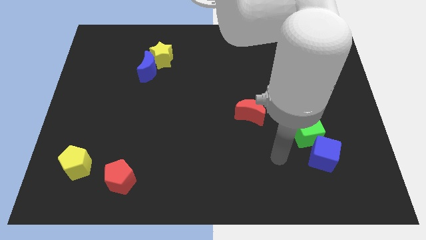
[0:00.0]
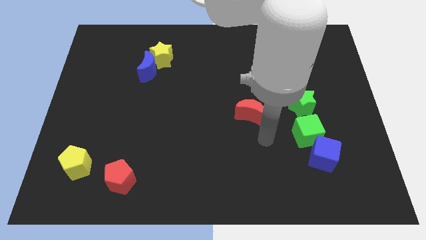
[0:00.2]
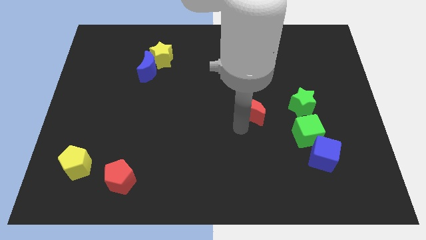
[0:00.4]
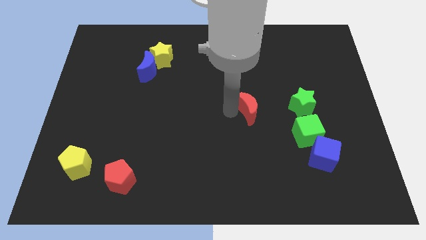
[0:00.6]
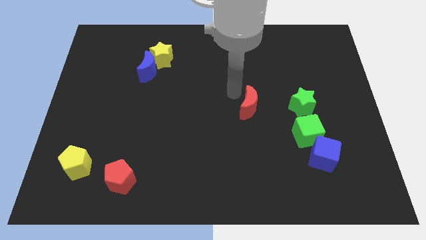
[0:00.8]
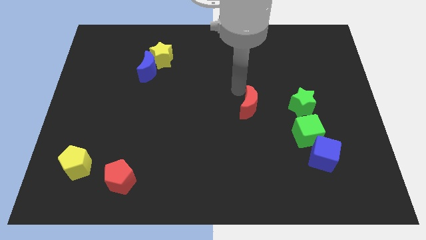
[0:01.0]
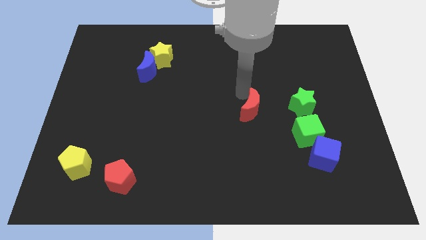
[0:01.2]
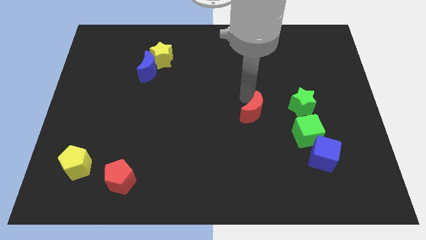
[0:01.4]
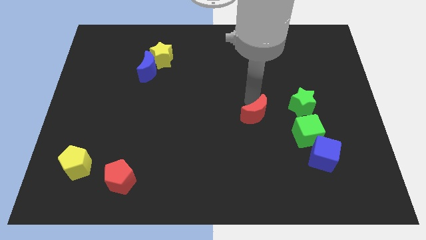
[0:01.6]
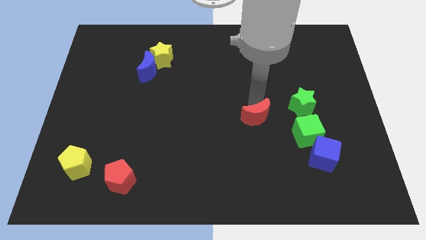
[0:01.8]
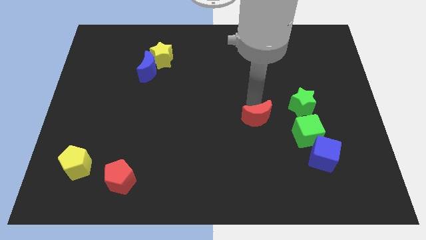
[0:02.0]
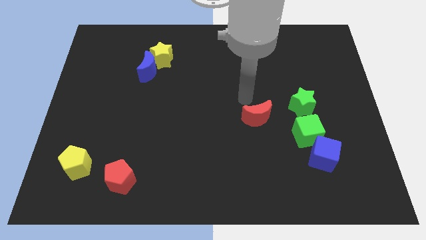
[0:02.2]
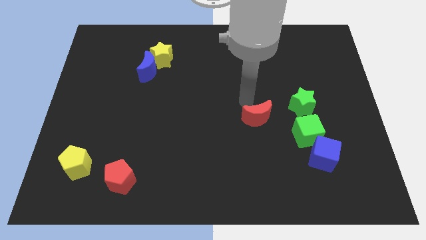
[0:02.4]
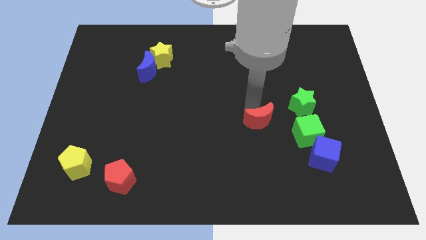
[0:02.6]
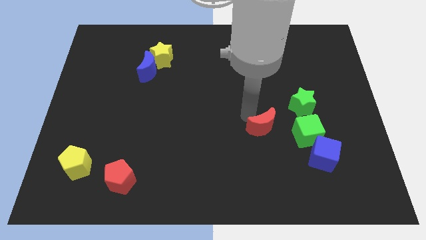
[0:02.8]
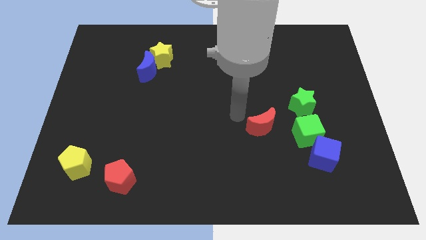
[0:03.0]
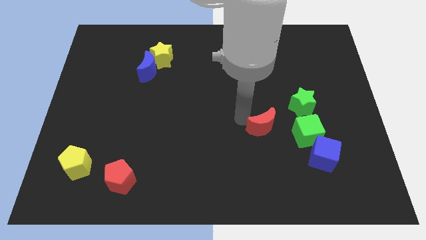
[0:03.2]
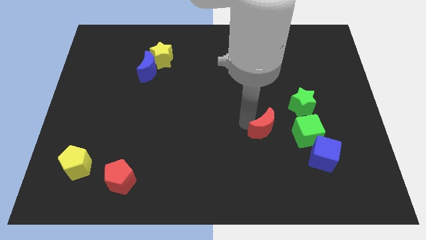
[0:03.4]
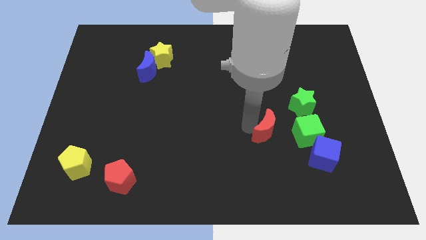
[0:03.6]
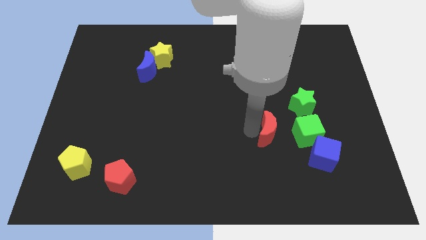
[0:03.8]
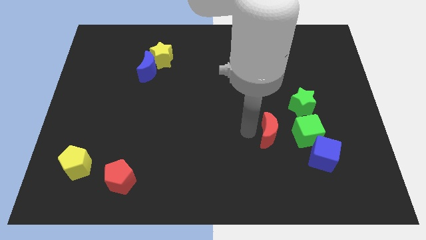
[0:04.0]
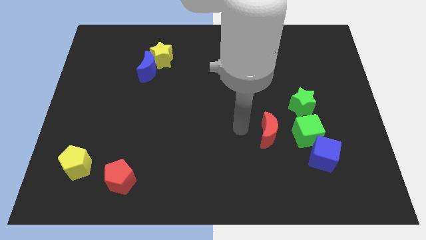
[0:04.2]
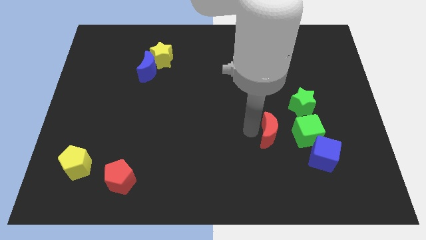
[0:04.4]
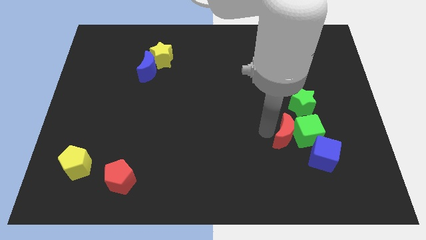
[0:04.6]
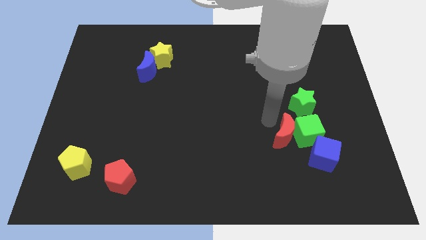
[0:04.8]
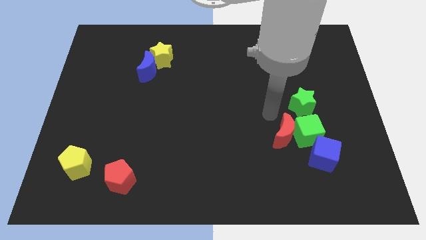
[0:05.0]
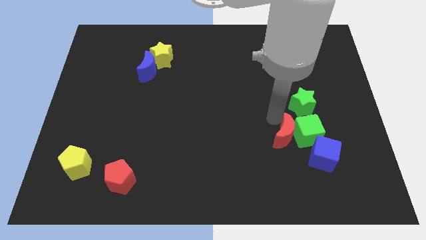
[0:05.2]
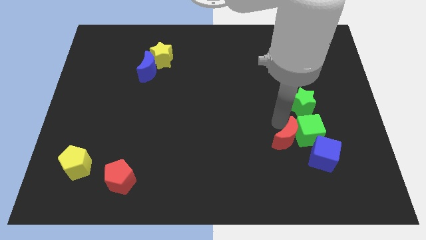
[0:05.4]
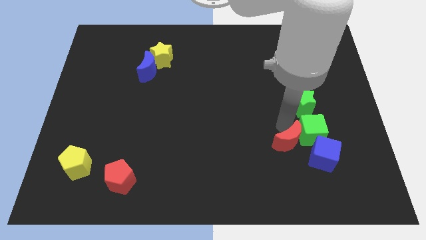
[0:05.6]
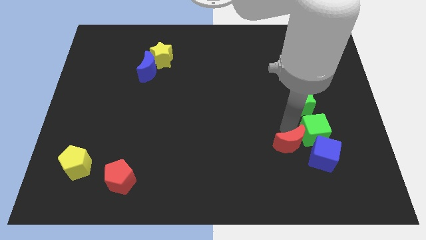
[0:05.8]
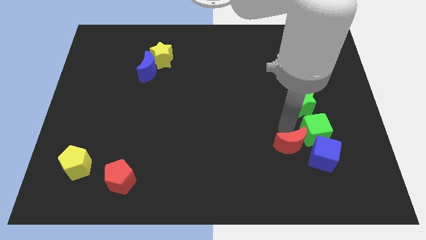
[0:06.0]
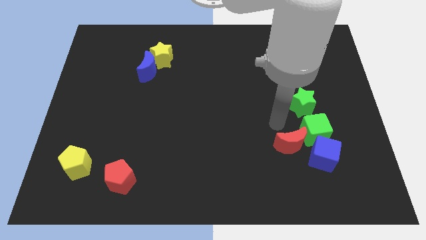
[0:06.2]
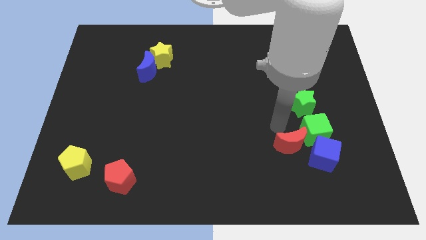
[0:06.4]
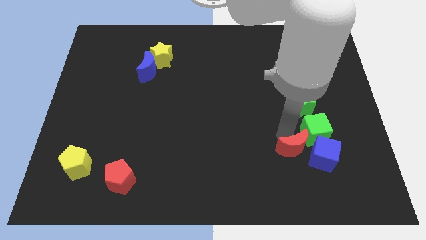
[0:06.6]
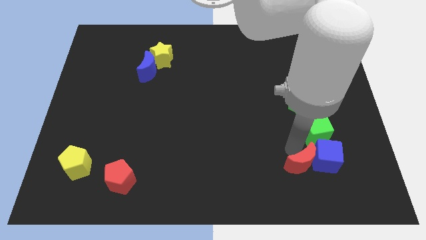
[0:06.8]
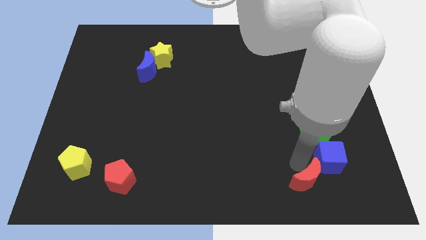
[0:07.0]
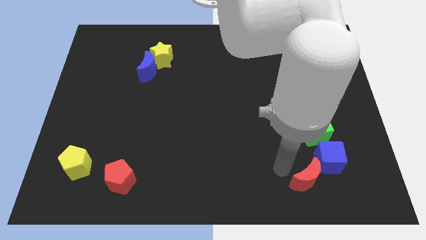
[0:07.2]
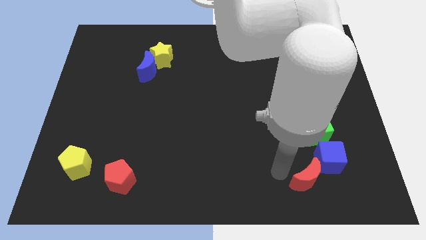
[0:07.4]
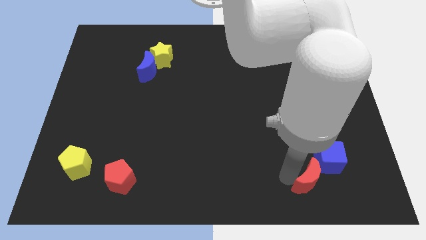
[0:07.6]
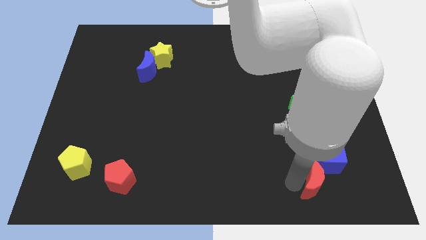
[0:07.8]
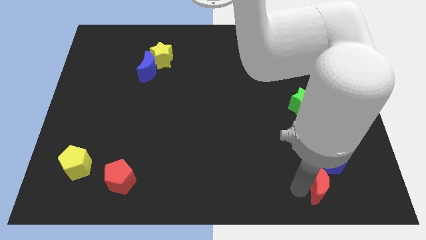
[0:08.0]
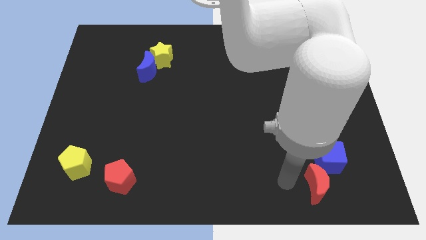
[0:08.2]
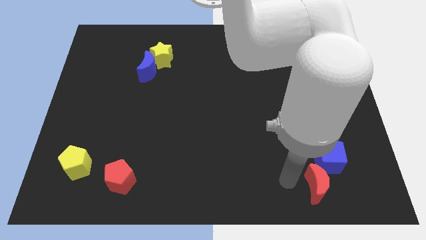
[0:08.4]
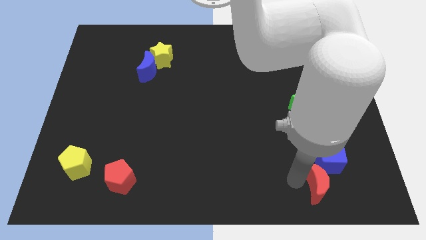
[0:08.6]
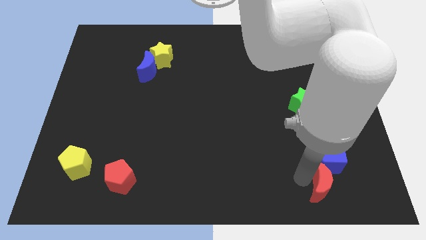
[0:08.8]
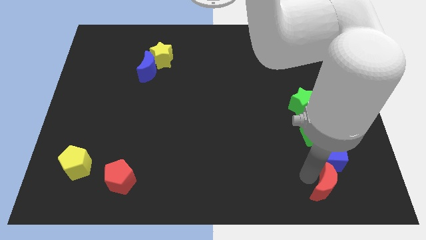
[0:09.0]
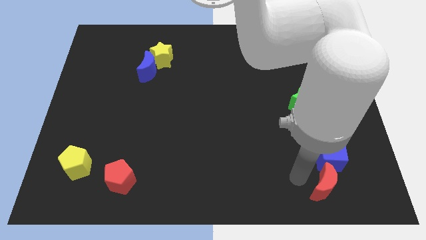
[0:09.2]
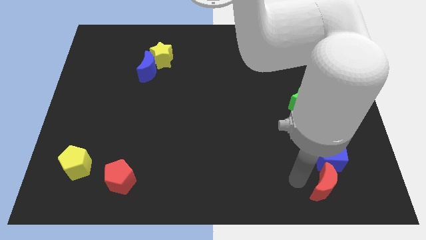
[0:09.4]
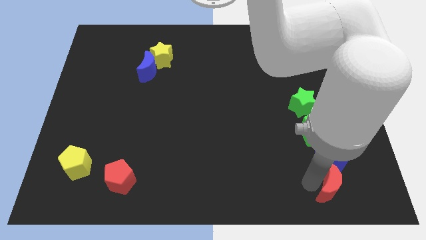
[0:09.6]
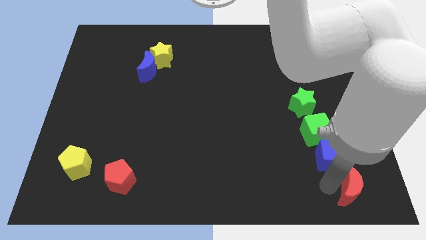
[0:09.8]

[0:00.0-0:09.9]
put the red moon to the bottom right corner

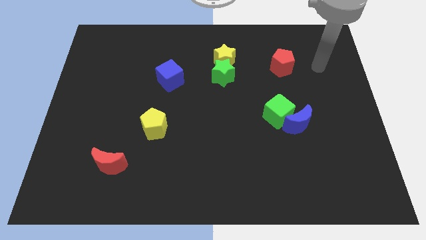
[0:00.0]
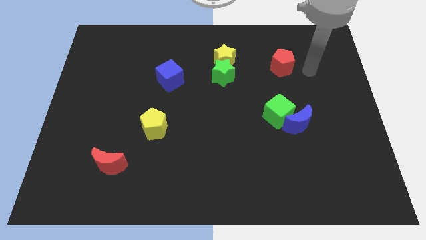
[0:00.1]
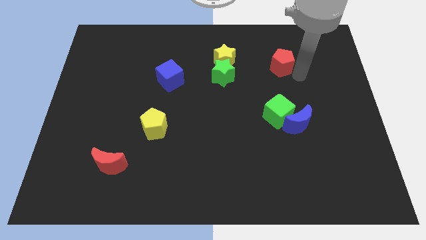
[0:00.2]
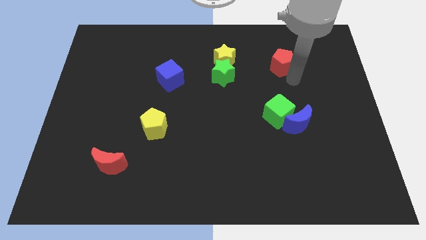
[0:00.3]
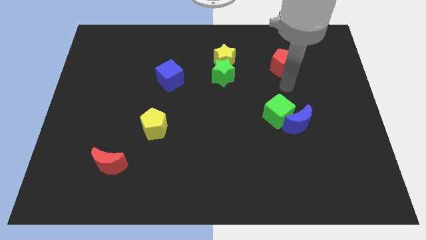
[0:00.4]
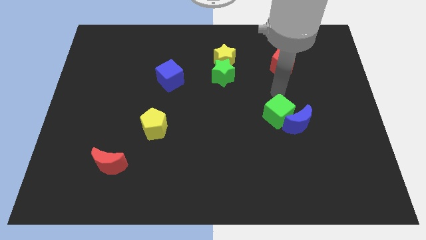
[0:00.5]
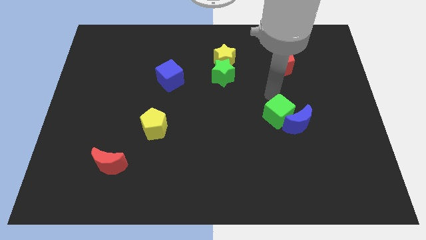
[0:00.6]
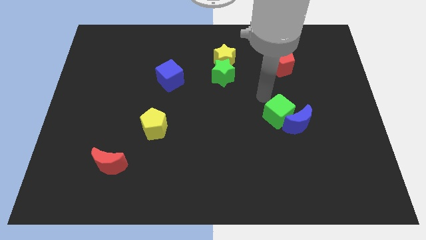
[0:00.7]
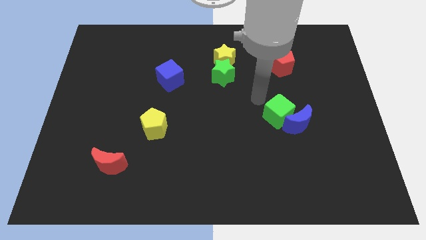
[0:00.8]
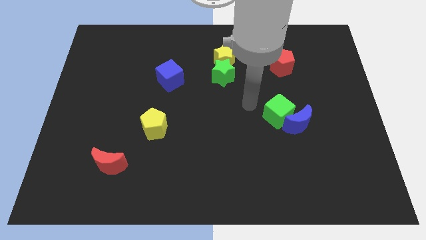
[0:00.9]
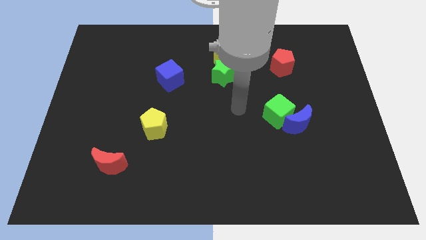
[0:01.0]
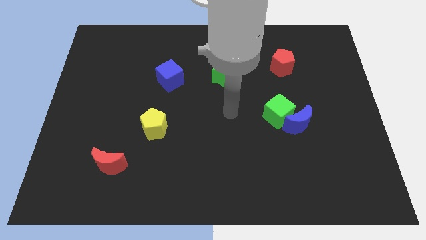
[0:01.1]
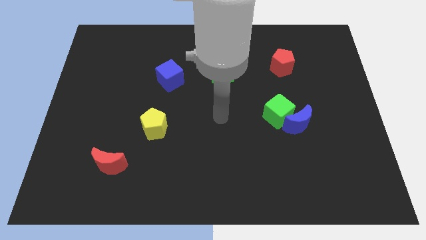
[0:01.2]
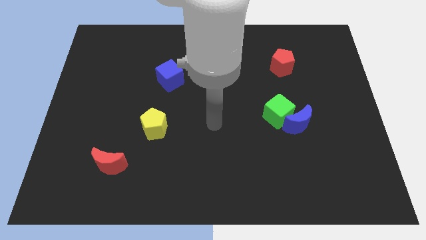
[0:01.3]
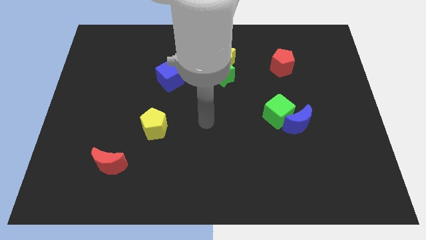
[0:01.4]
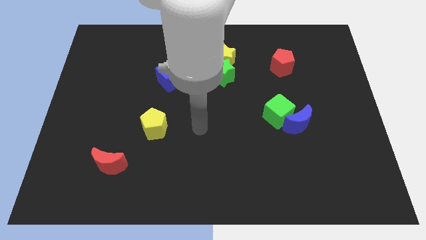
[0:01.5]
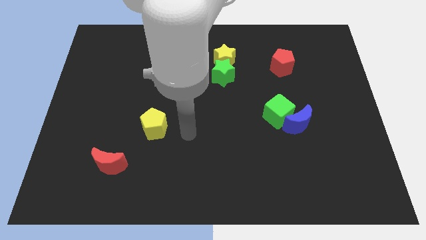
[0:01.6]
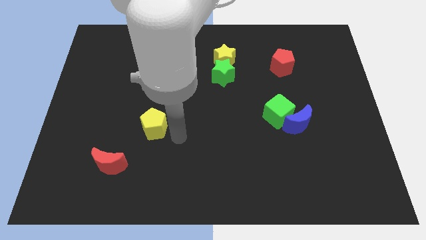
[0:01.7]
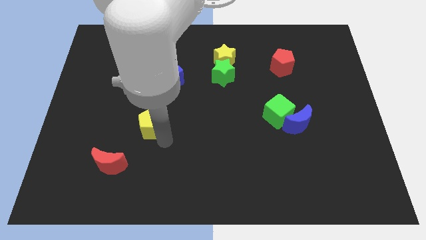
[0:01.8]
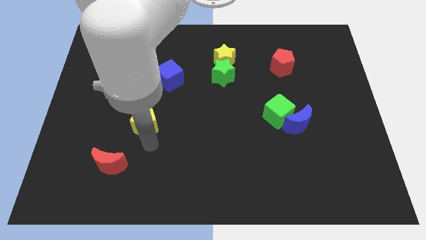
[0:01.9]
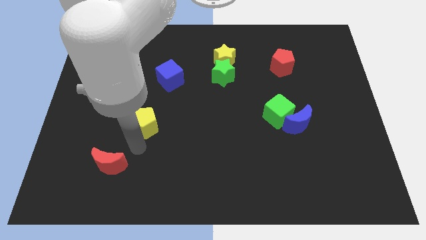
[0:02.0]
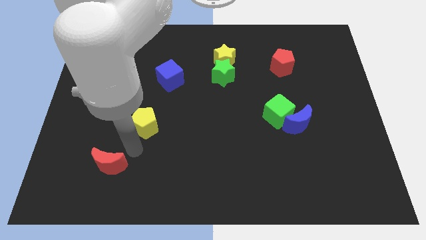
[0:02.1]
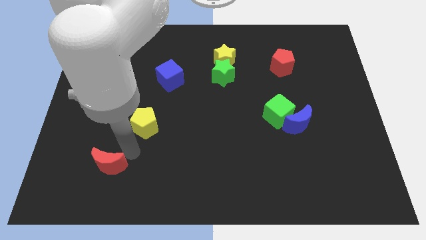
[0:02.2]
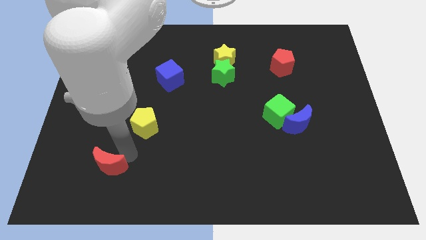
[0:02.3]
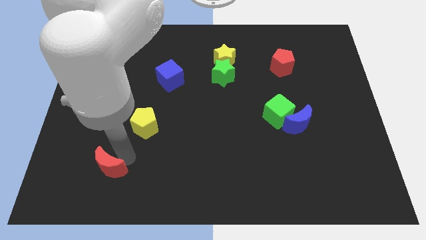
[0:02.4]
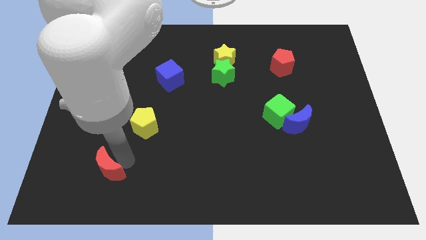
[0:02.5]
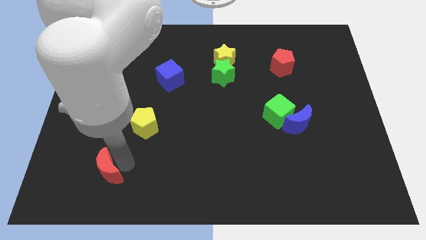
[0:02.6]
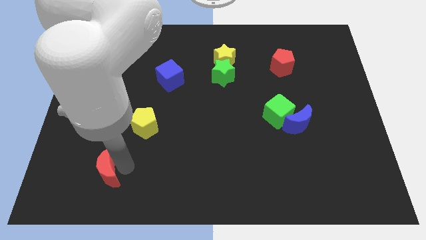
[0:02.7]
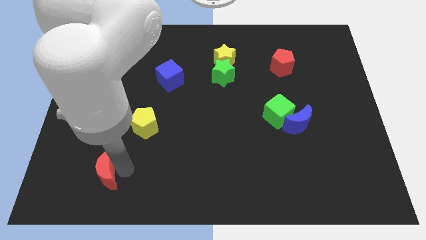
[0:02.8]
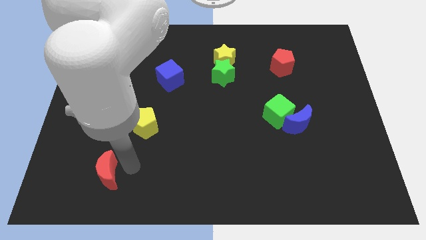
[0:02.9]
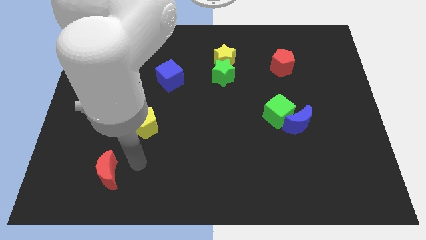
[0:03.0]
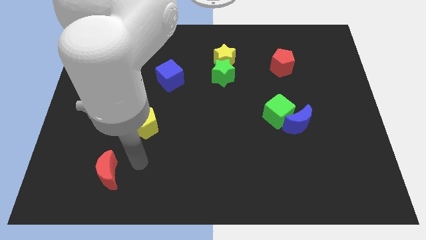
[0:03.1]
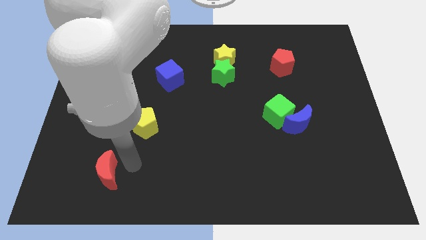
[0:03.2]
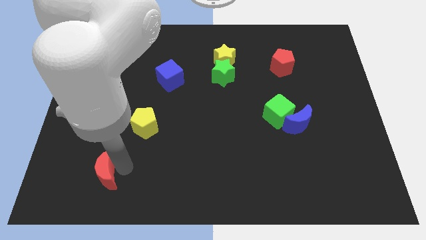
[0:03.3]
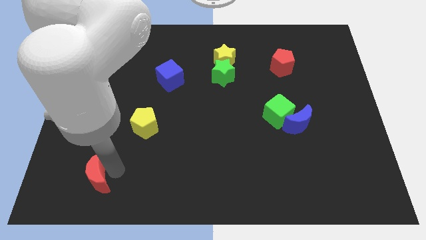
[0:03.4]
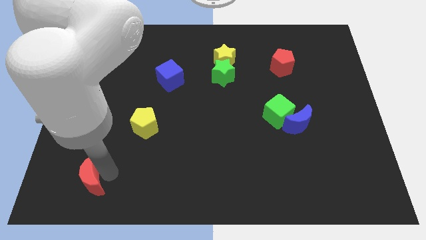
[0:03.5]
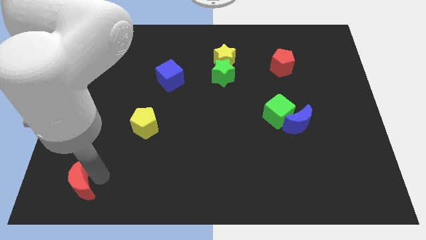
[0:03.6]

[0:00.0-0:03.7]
push the red moon to the bottom left of the board
